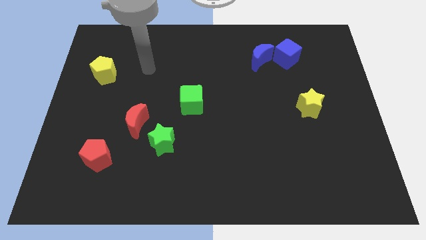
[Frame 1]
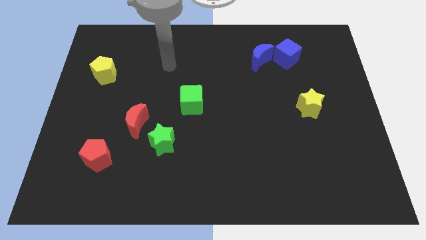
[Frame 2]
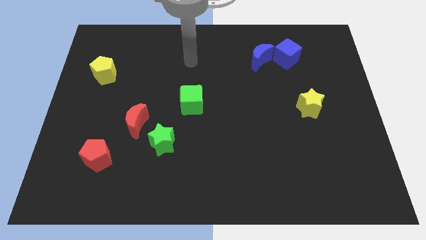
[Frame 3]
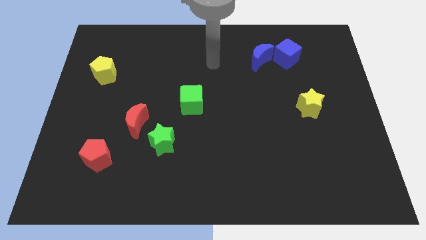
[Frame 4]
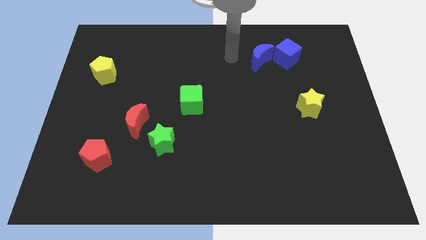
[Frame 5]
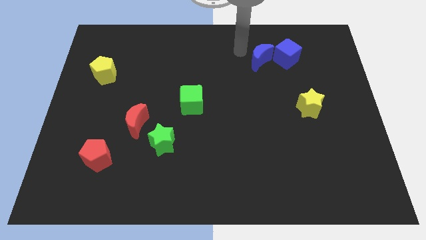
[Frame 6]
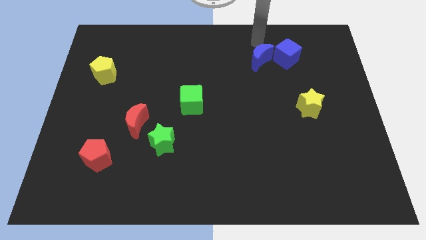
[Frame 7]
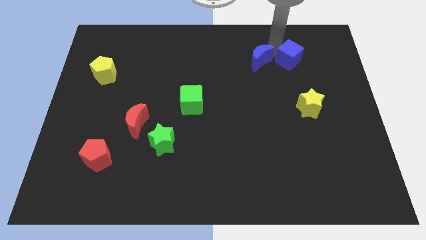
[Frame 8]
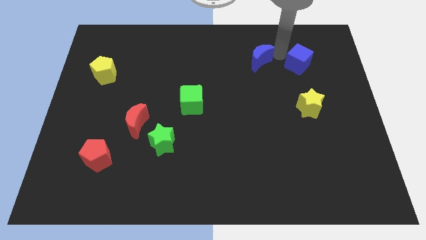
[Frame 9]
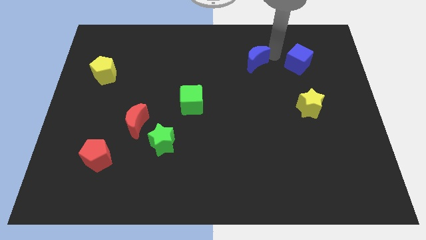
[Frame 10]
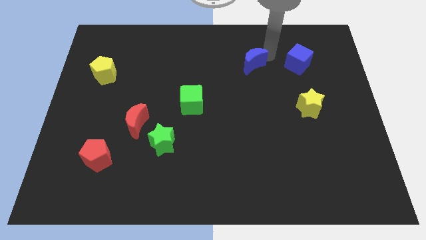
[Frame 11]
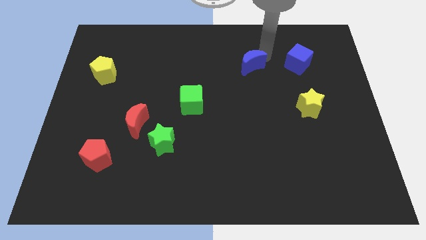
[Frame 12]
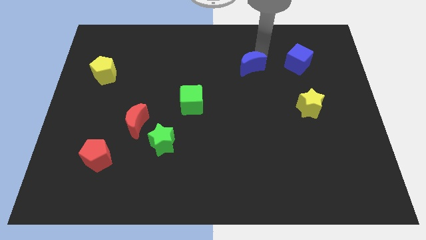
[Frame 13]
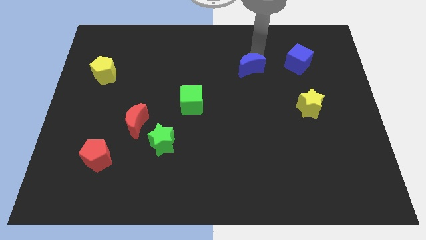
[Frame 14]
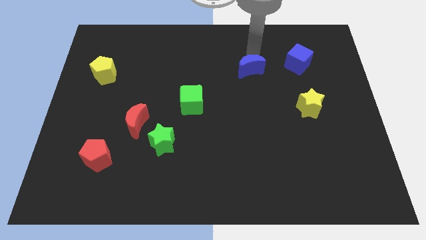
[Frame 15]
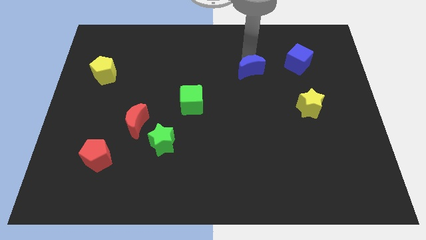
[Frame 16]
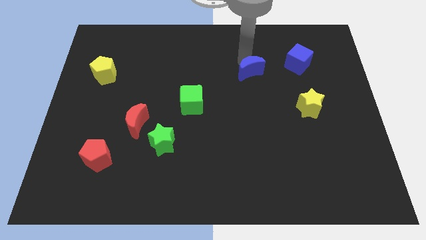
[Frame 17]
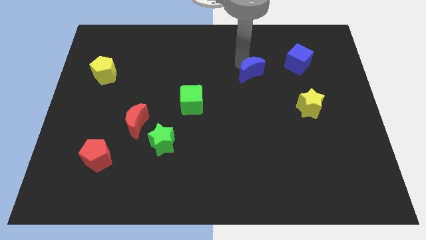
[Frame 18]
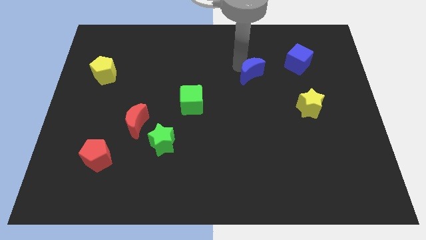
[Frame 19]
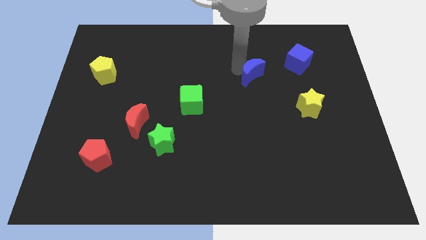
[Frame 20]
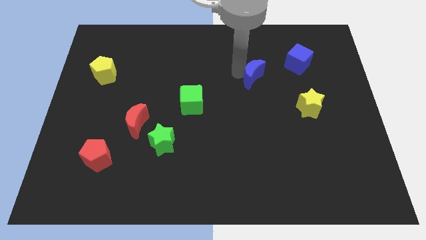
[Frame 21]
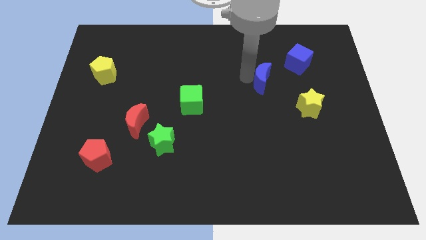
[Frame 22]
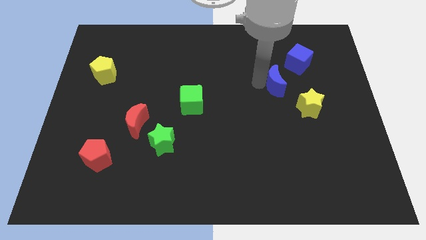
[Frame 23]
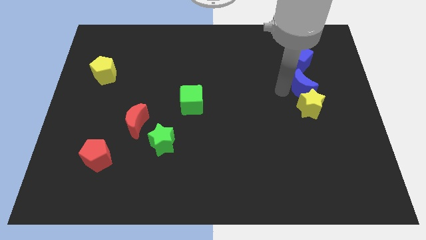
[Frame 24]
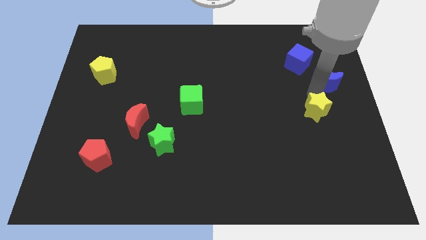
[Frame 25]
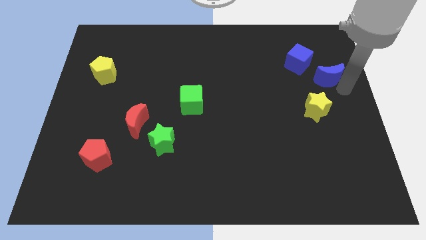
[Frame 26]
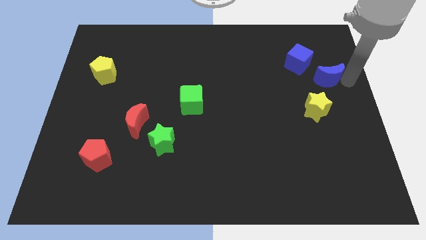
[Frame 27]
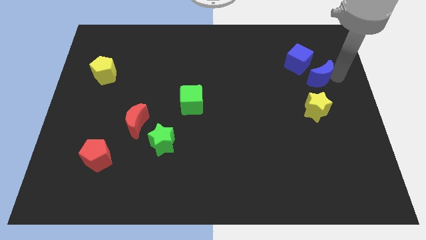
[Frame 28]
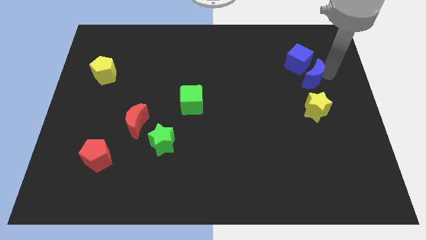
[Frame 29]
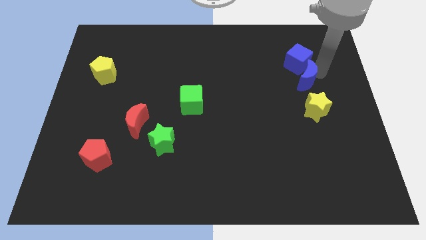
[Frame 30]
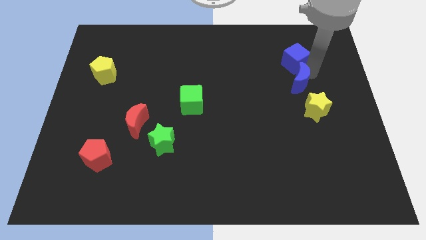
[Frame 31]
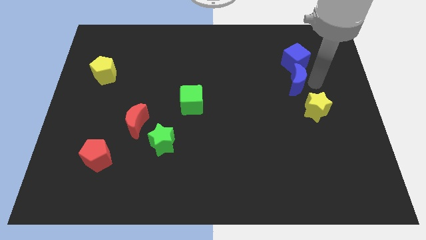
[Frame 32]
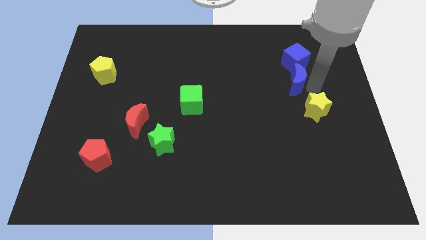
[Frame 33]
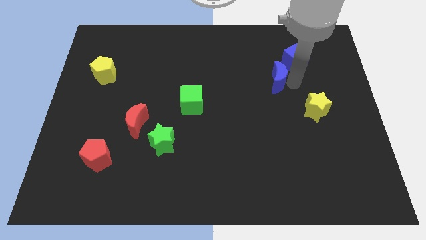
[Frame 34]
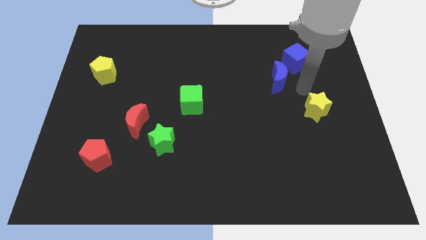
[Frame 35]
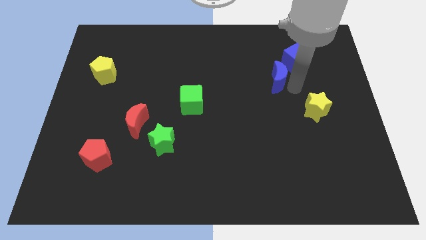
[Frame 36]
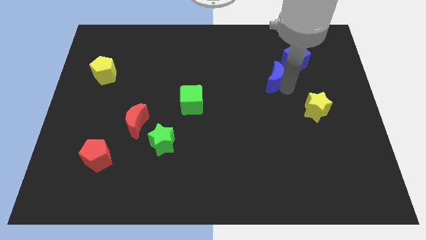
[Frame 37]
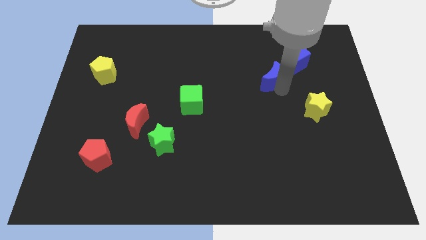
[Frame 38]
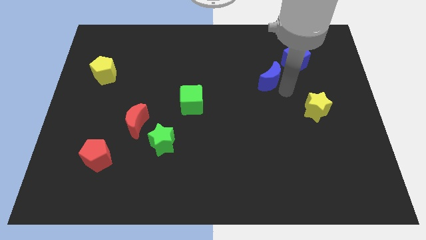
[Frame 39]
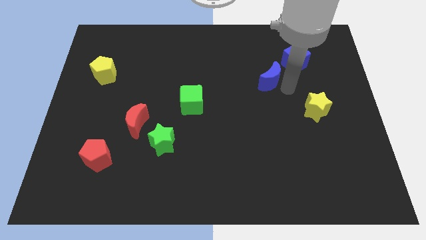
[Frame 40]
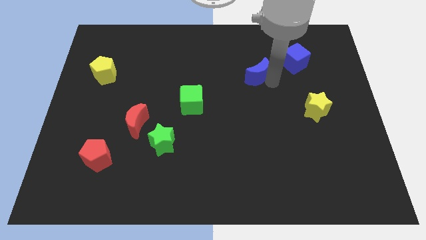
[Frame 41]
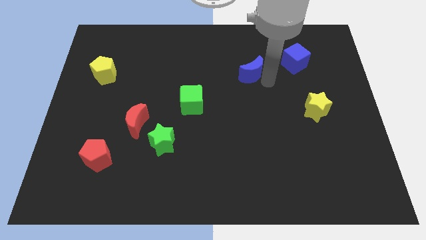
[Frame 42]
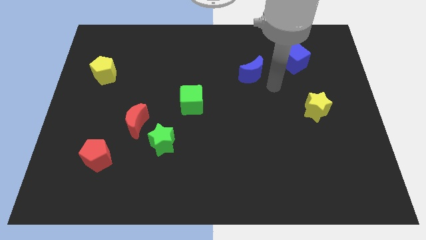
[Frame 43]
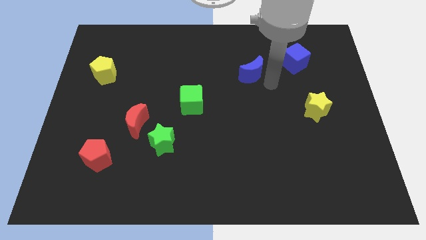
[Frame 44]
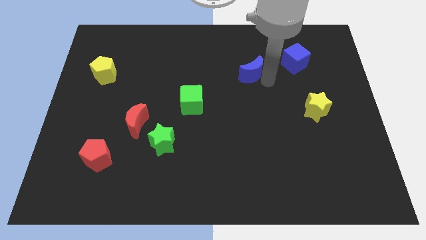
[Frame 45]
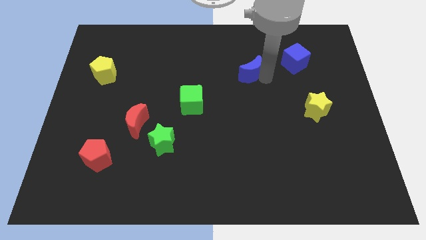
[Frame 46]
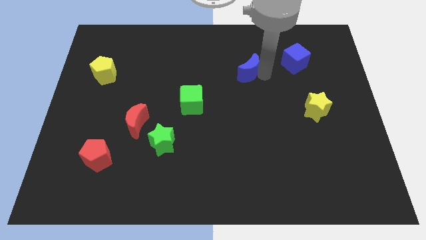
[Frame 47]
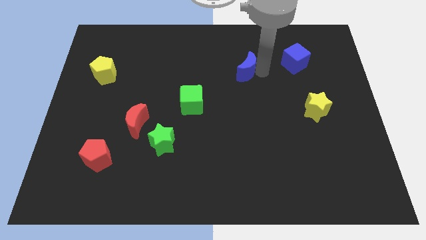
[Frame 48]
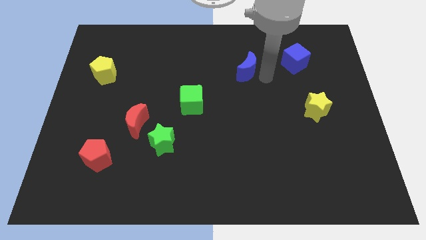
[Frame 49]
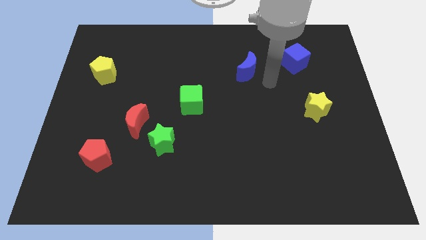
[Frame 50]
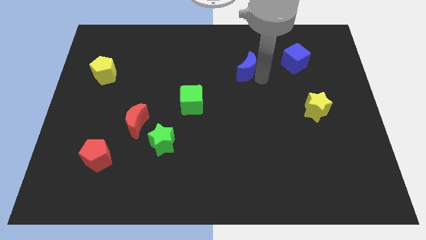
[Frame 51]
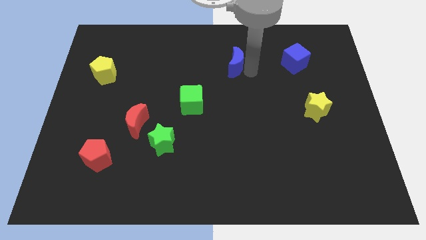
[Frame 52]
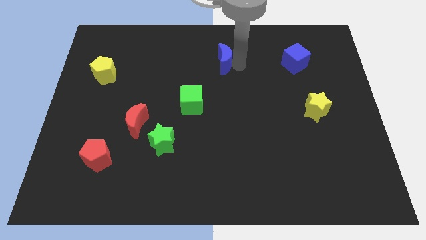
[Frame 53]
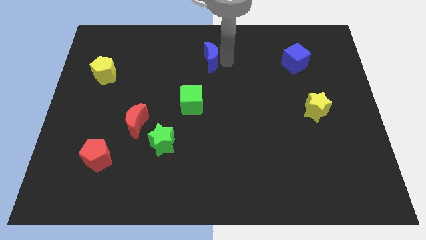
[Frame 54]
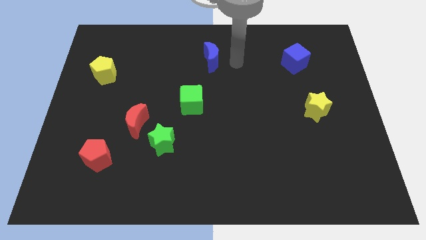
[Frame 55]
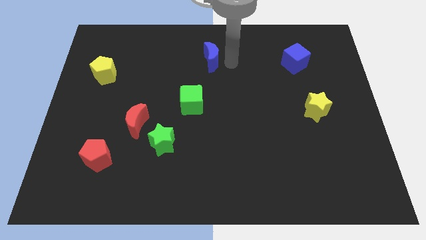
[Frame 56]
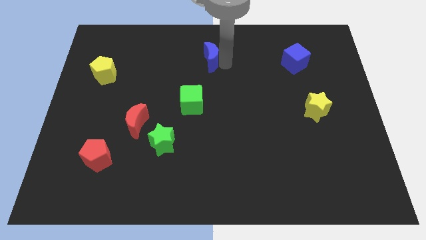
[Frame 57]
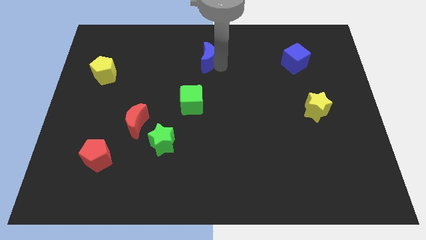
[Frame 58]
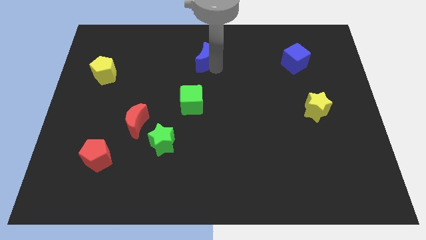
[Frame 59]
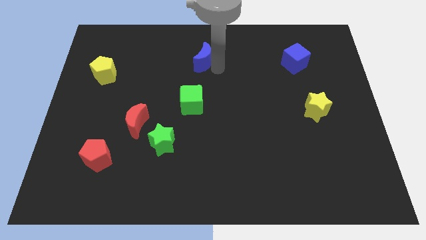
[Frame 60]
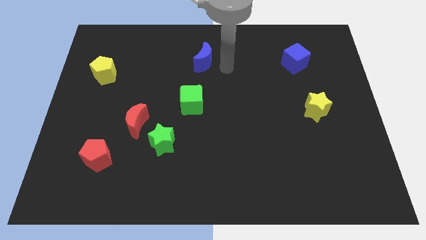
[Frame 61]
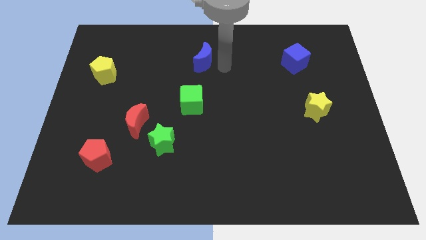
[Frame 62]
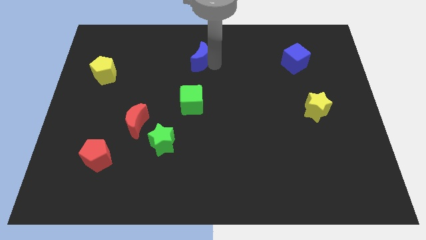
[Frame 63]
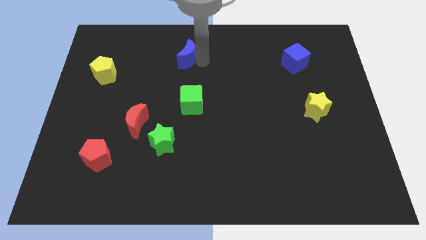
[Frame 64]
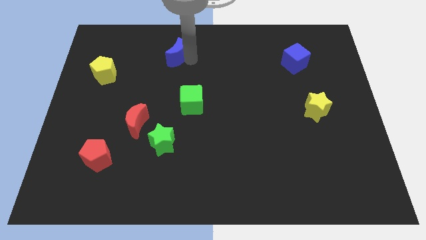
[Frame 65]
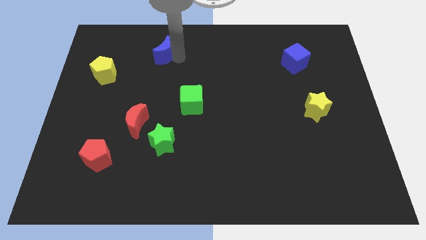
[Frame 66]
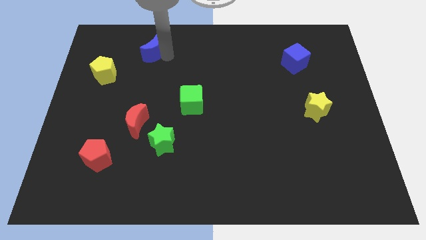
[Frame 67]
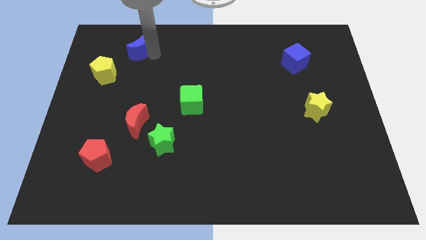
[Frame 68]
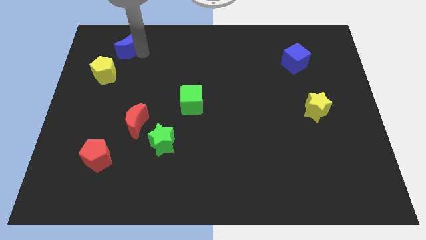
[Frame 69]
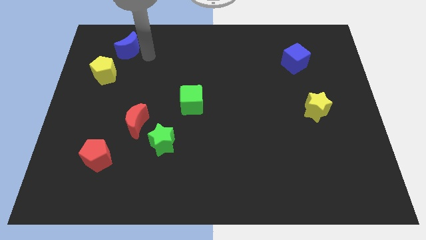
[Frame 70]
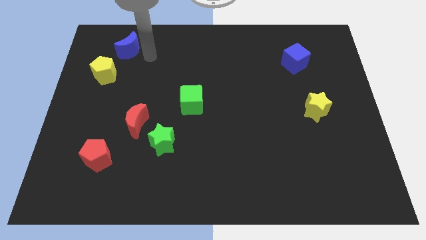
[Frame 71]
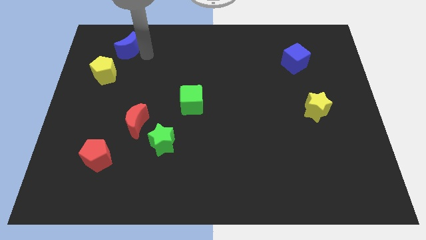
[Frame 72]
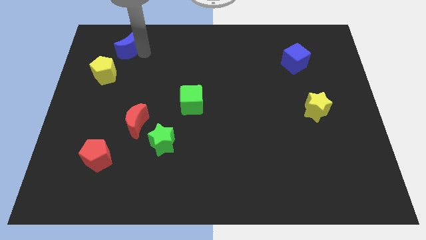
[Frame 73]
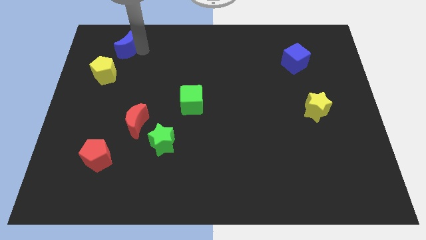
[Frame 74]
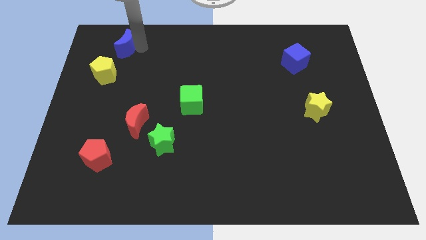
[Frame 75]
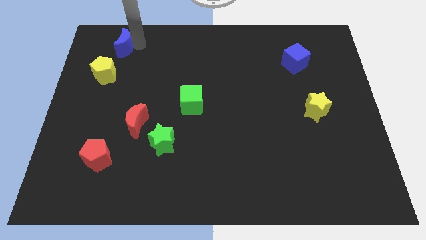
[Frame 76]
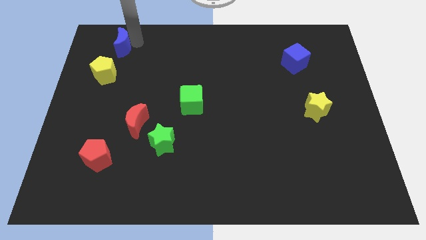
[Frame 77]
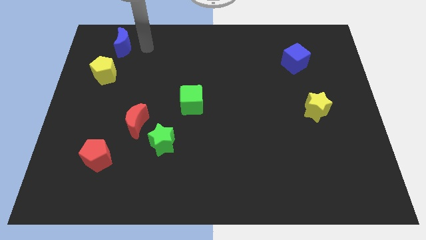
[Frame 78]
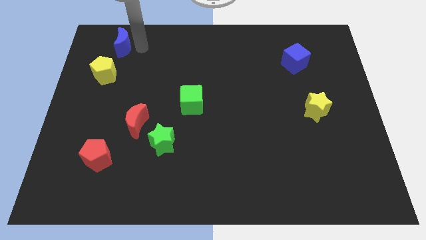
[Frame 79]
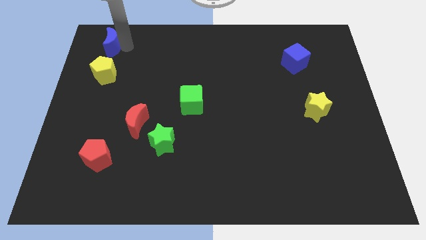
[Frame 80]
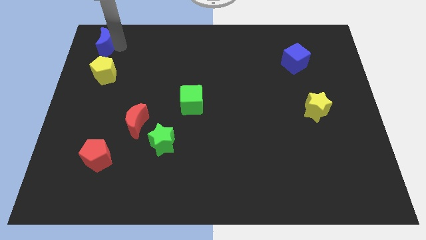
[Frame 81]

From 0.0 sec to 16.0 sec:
slide the blue moon to the top left
